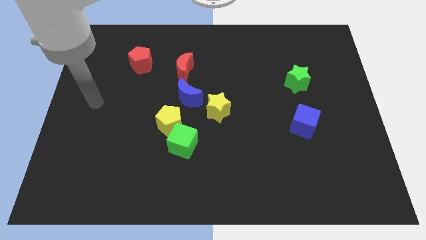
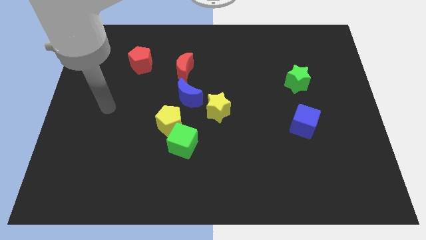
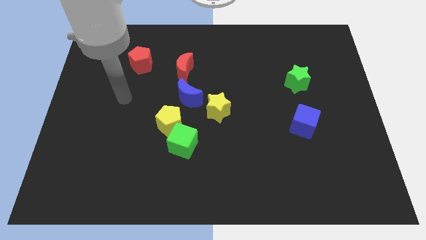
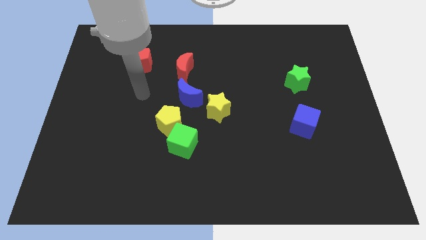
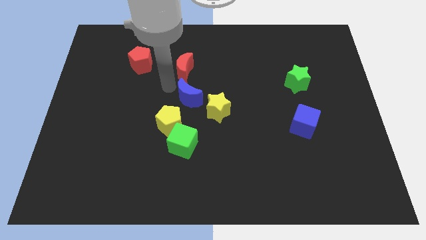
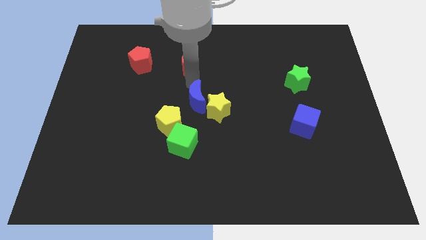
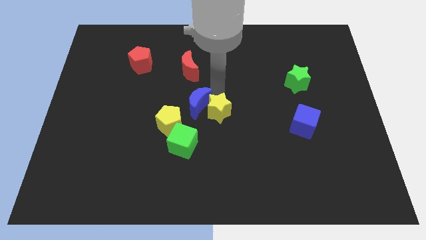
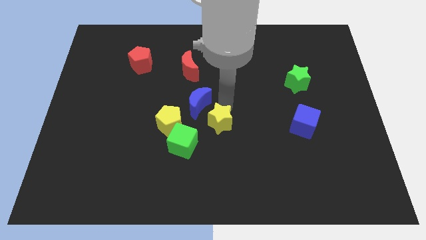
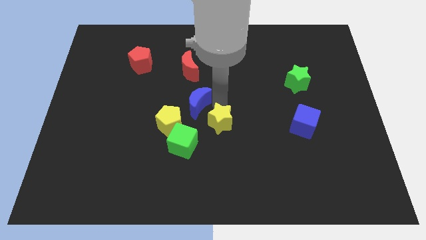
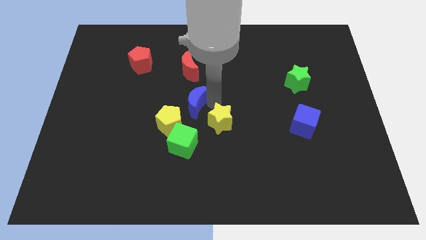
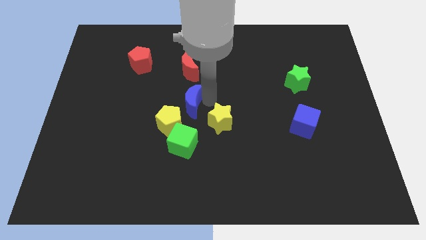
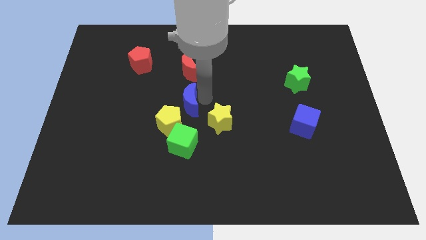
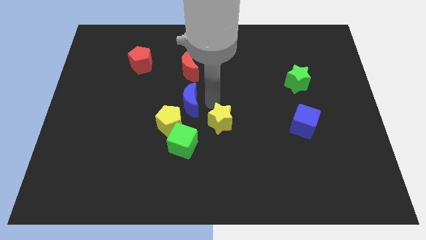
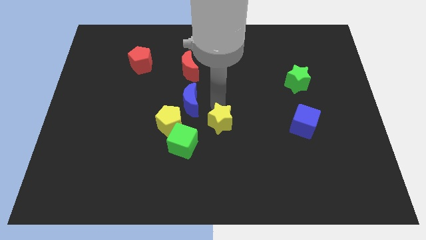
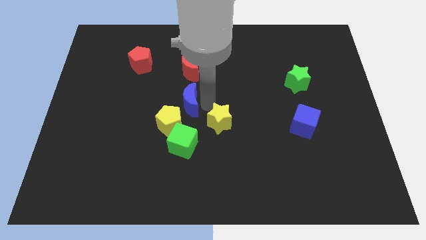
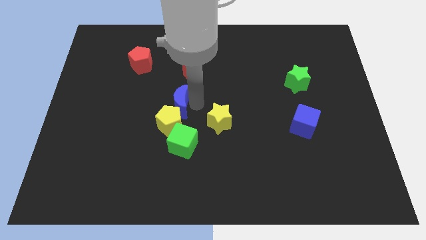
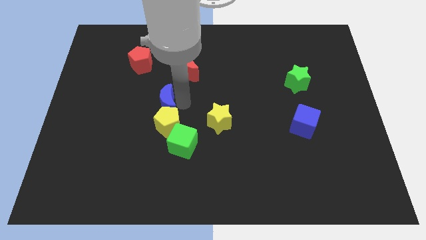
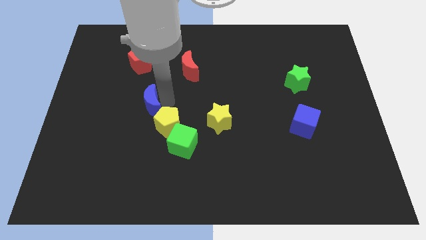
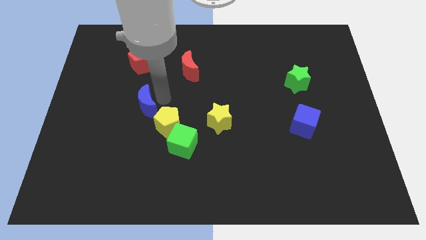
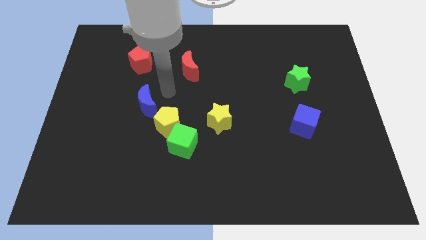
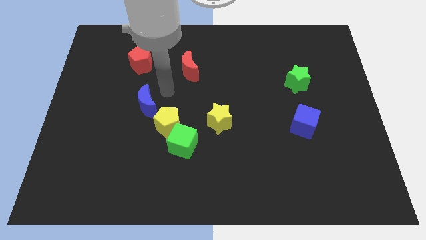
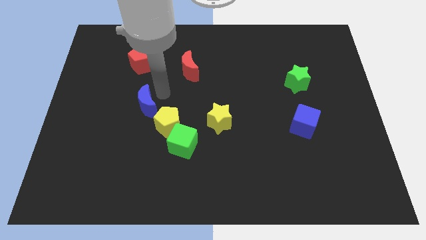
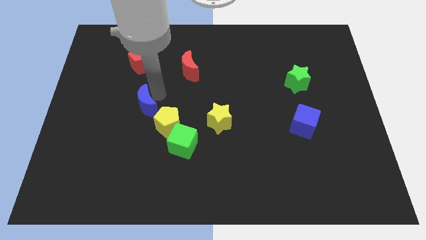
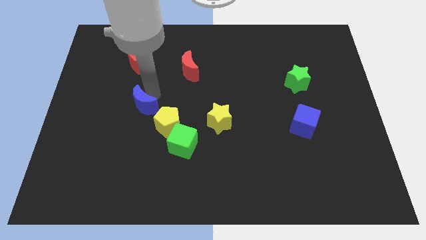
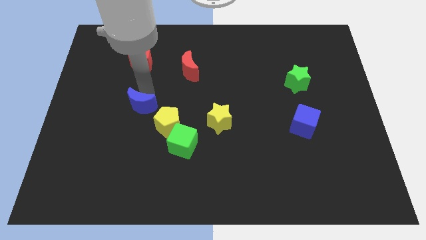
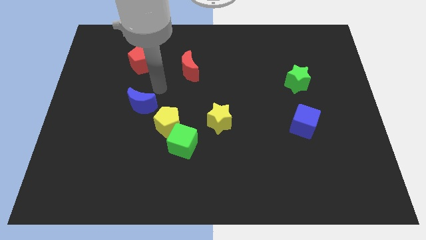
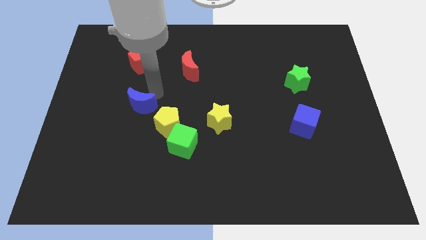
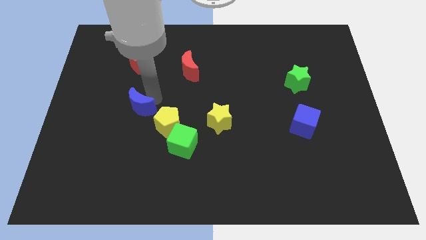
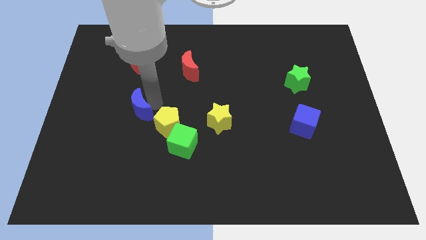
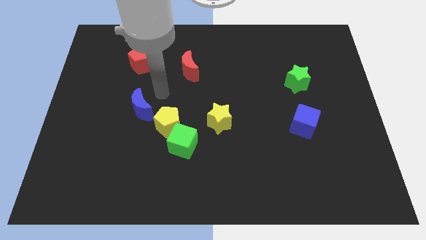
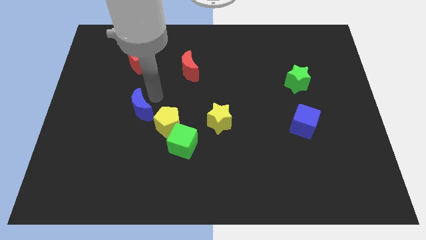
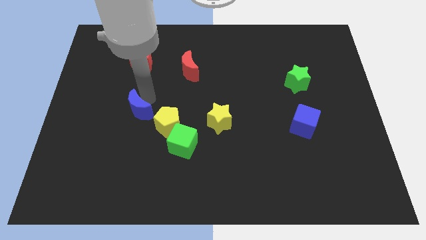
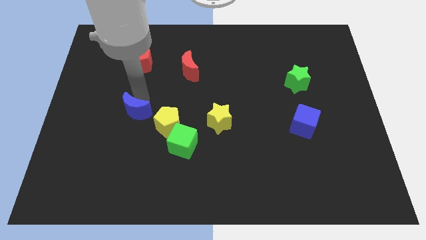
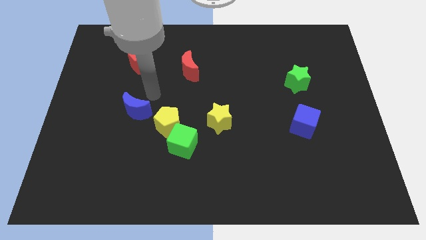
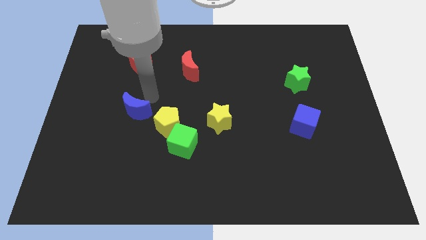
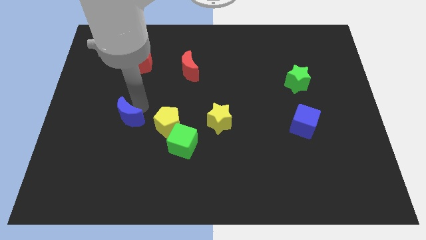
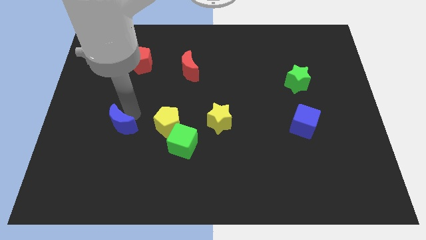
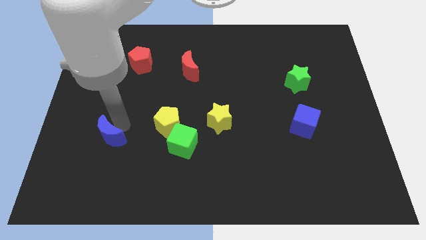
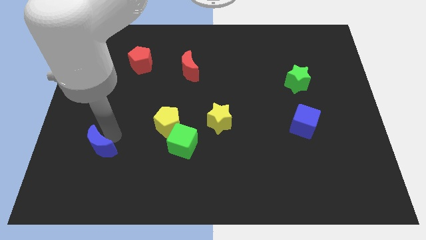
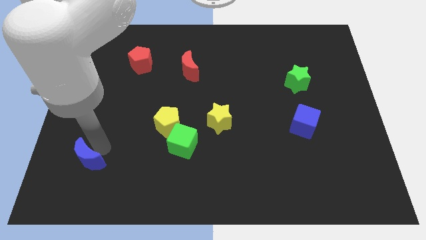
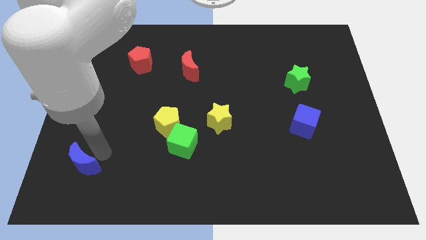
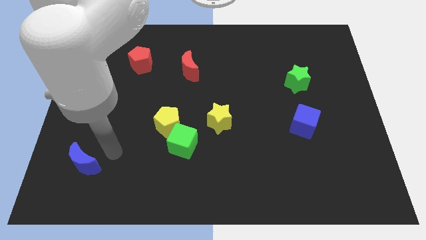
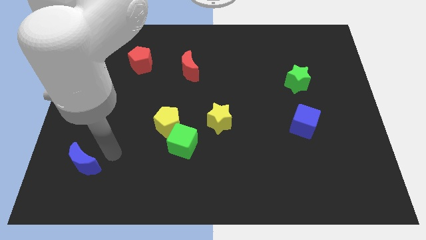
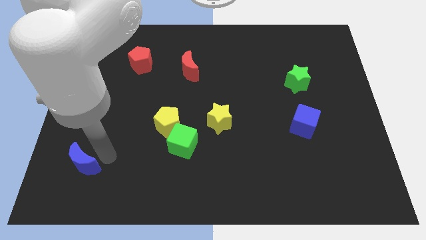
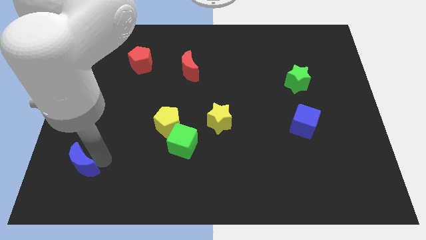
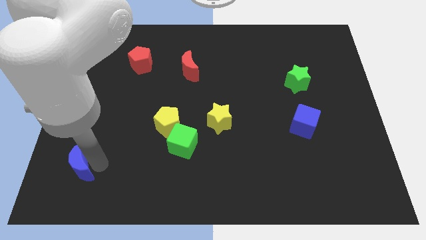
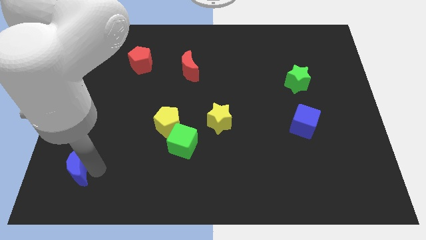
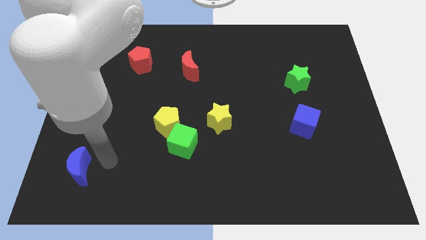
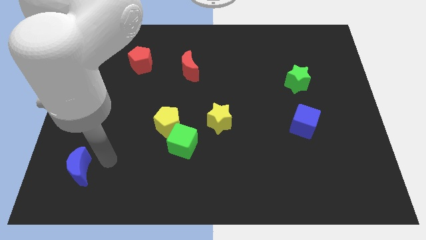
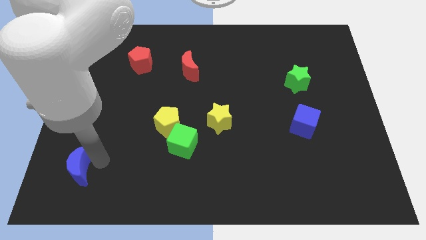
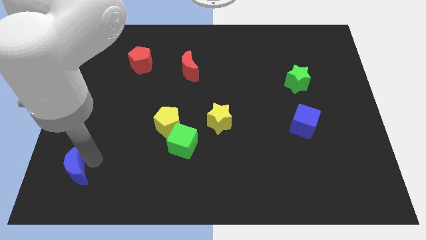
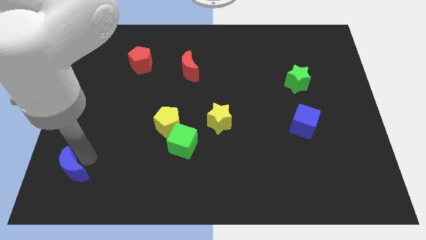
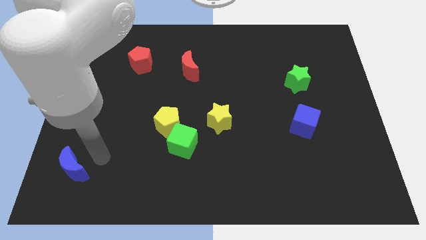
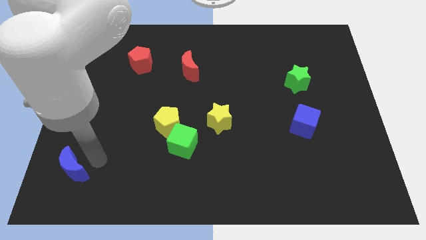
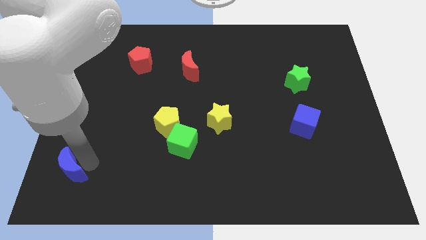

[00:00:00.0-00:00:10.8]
push the blue moon to the bottom left

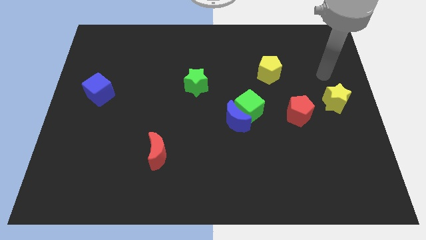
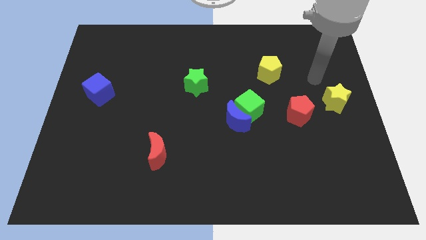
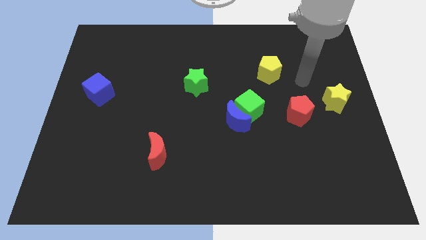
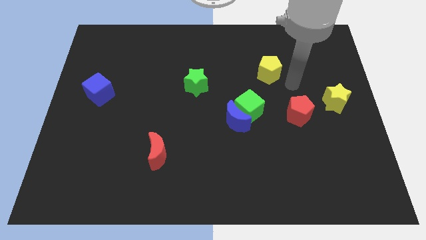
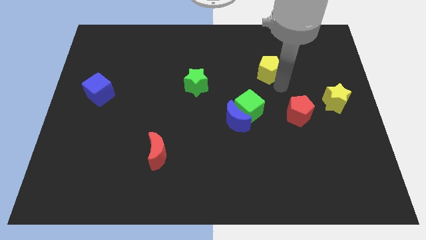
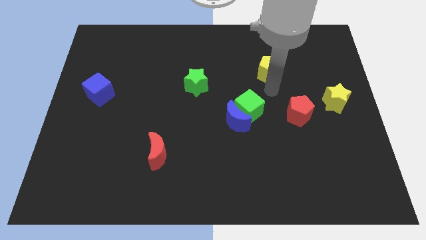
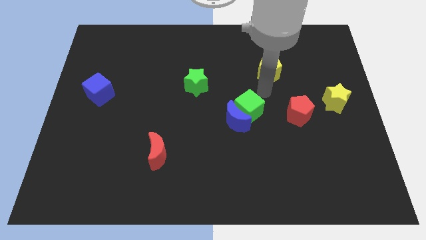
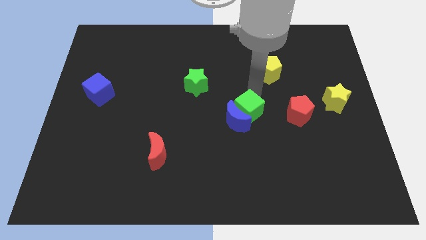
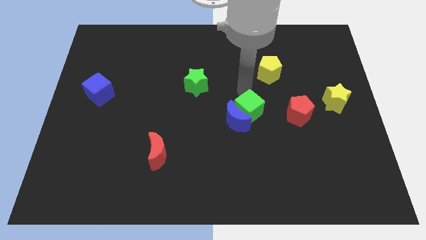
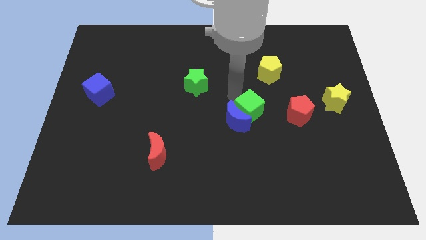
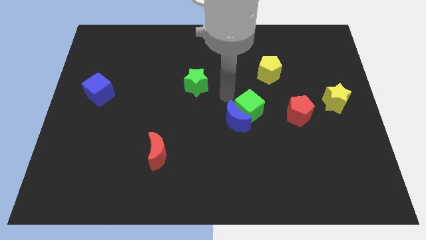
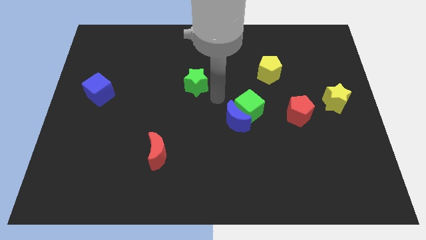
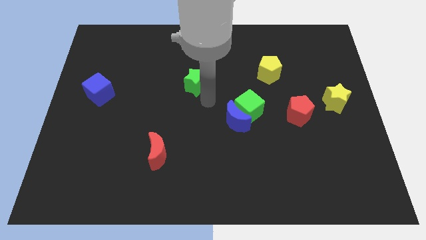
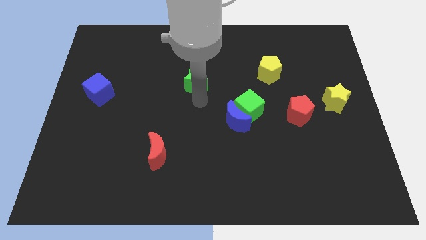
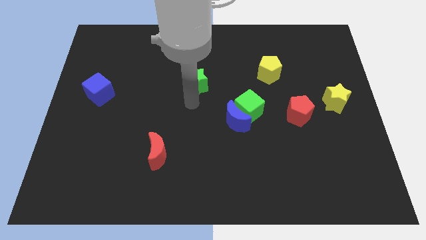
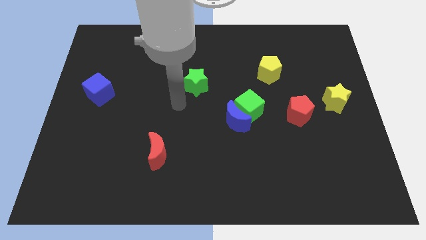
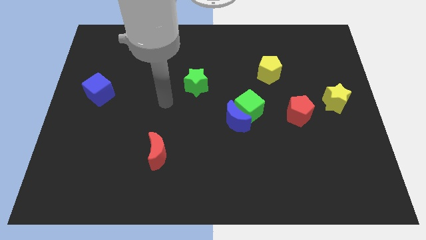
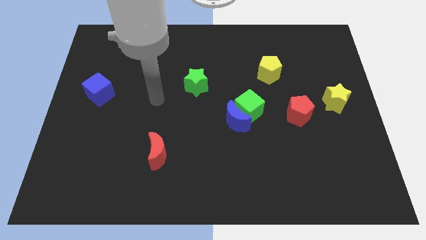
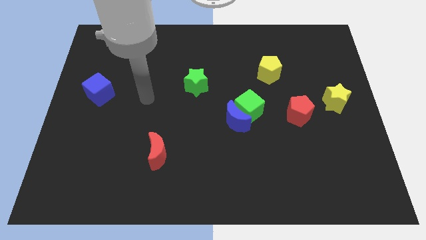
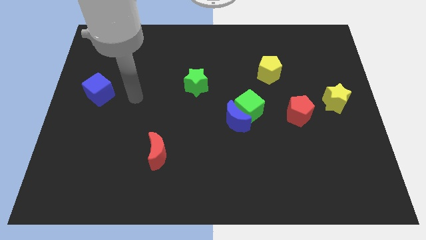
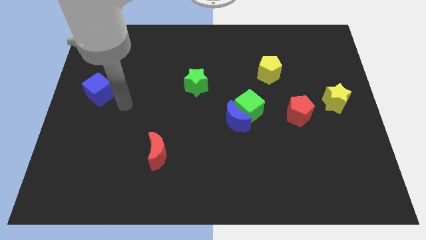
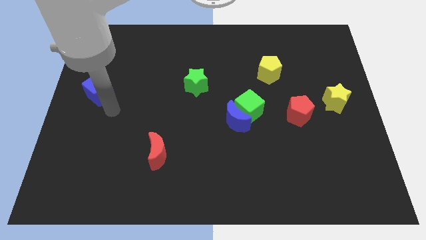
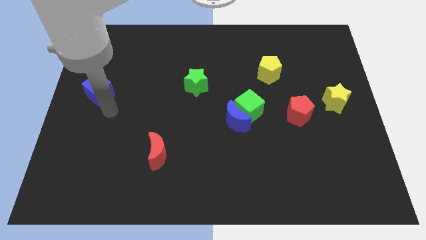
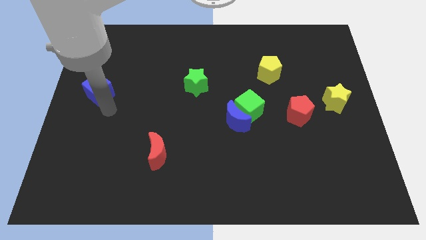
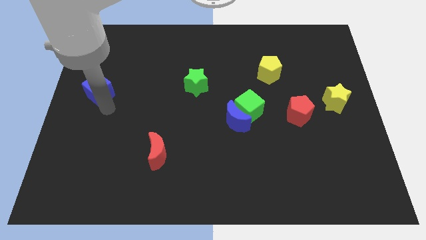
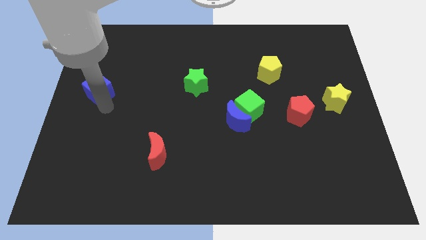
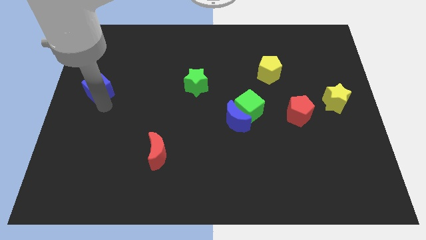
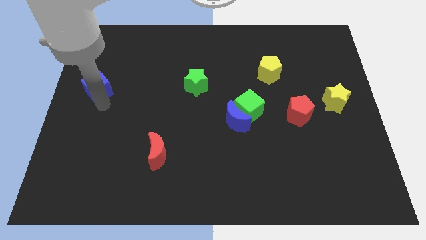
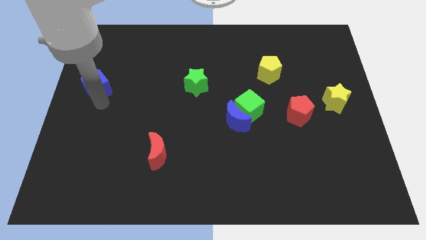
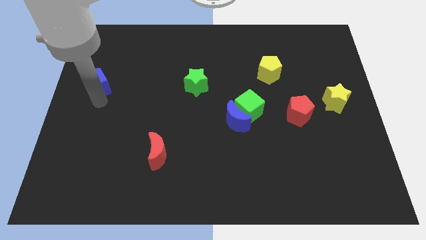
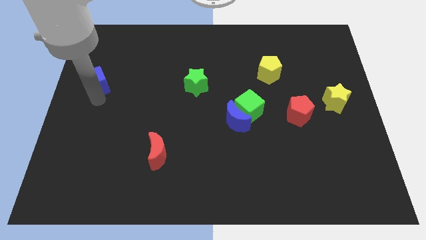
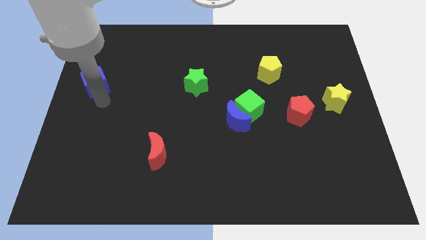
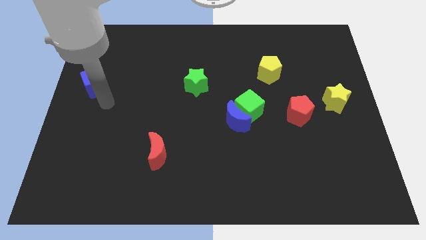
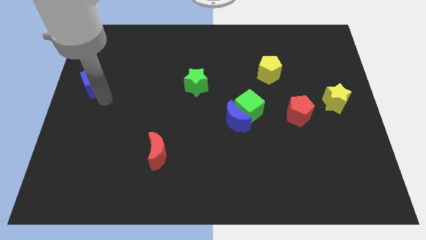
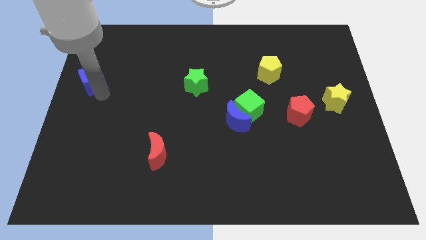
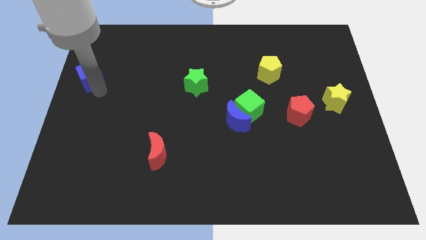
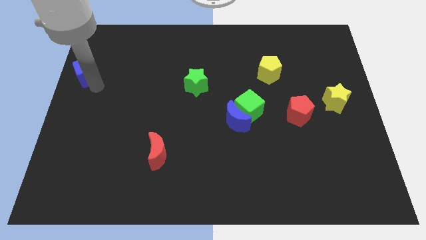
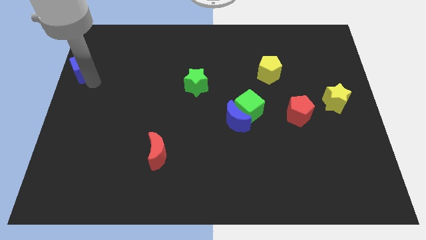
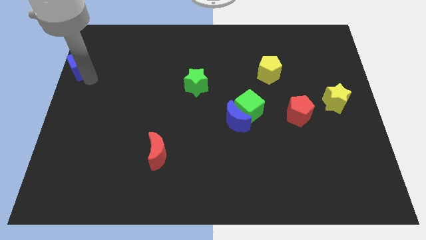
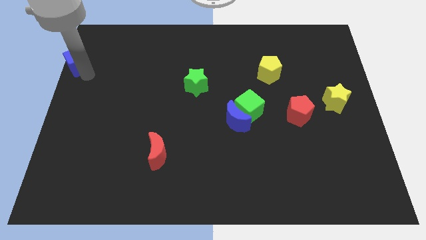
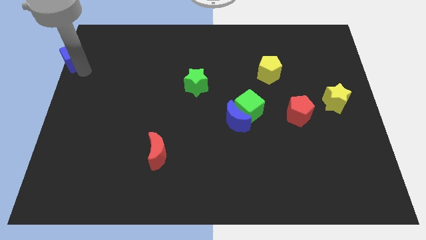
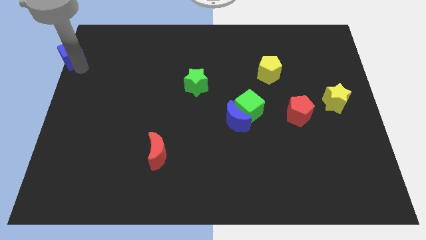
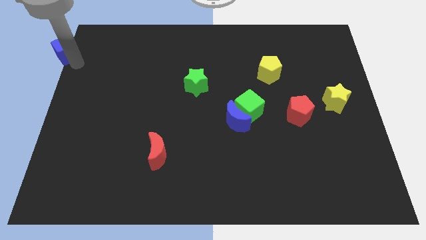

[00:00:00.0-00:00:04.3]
move the blue cube to the upper left corner
